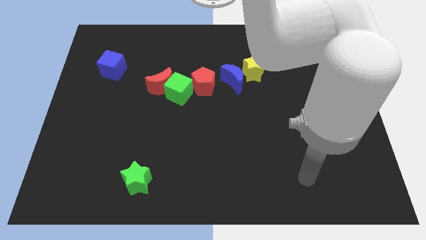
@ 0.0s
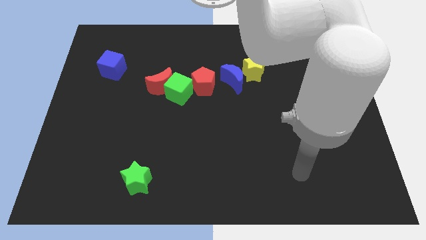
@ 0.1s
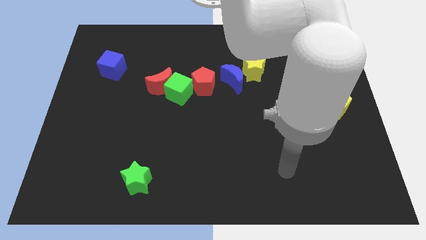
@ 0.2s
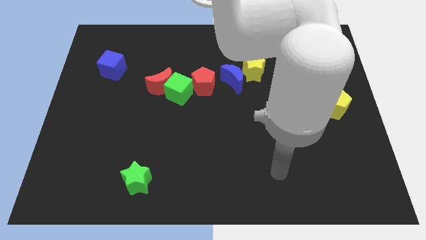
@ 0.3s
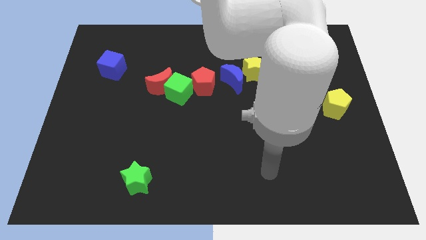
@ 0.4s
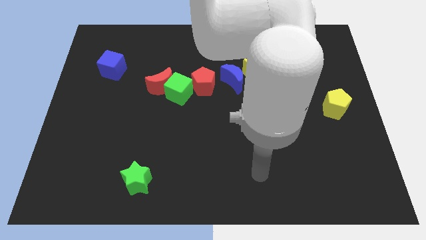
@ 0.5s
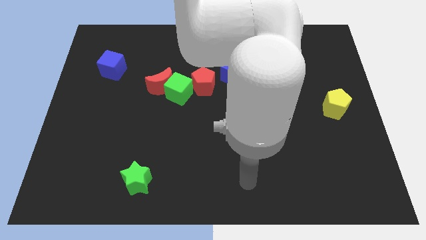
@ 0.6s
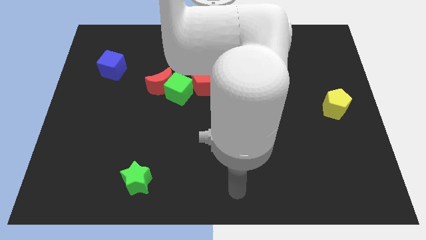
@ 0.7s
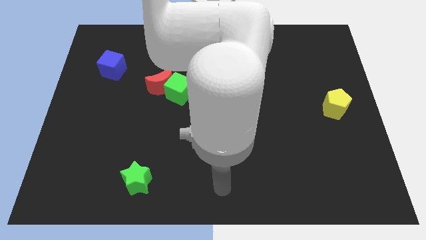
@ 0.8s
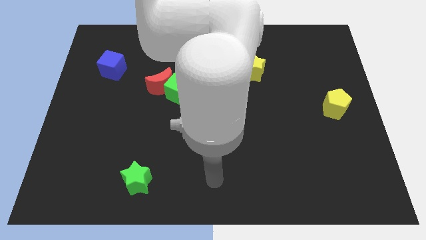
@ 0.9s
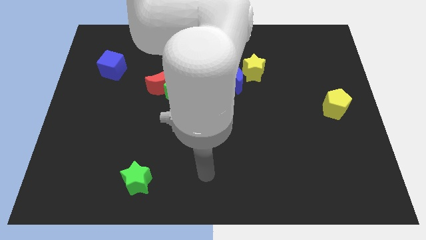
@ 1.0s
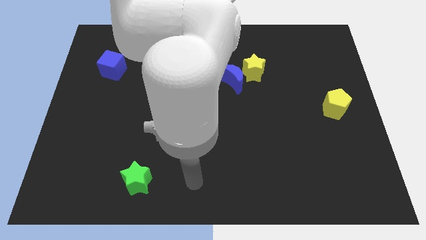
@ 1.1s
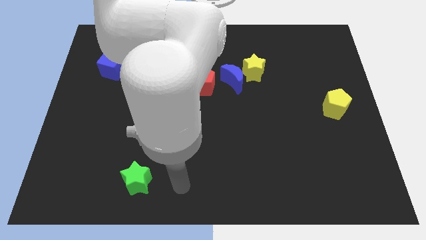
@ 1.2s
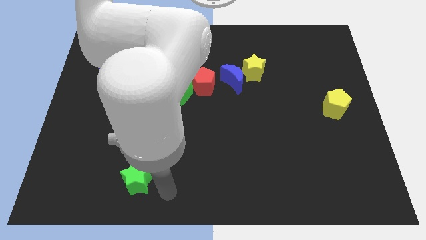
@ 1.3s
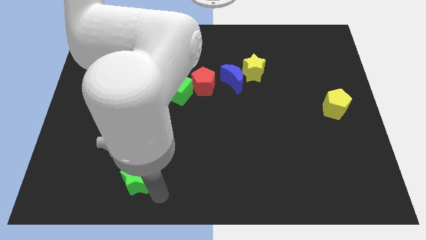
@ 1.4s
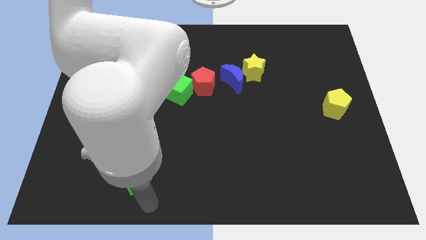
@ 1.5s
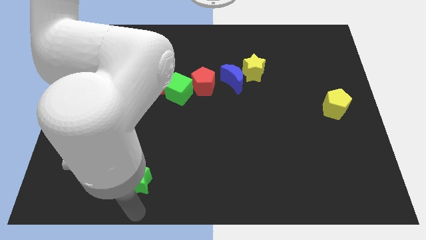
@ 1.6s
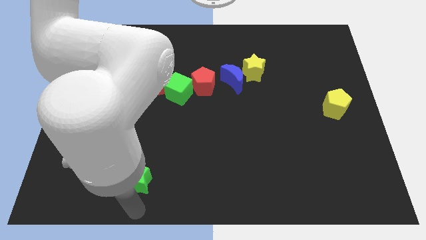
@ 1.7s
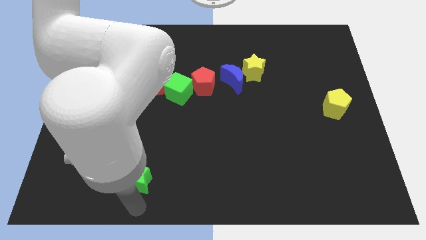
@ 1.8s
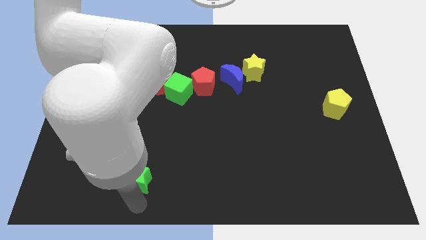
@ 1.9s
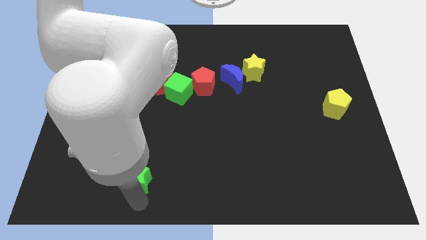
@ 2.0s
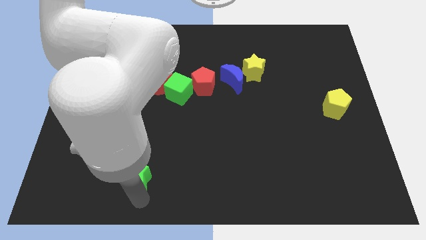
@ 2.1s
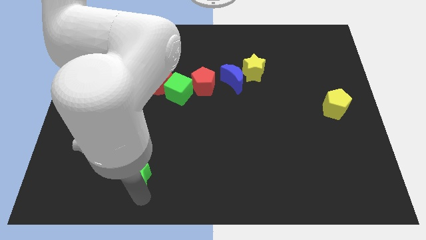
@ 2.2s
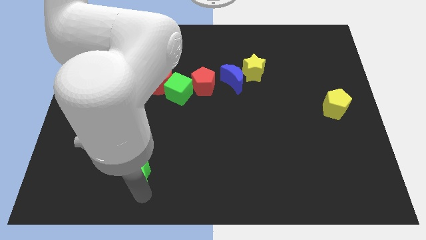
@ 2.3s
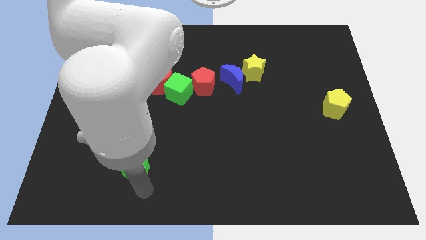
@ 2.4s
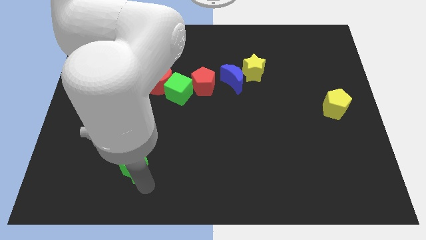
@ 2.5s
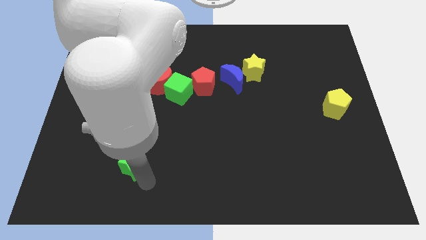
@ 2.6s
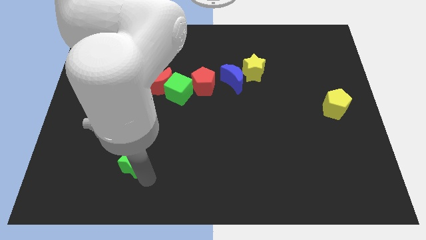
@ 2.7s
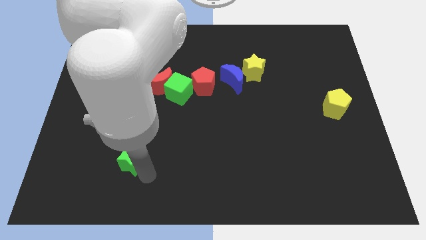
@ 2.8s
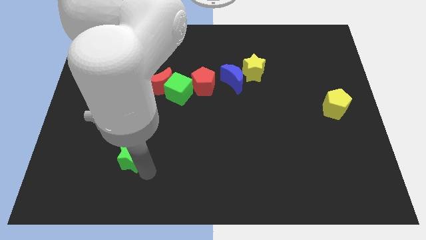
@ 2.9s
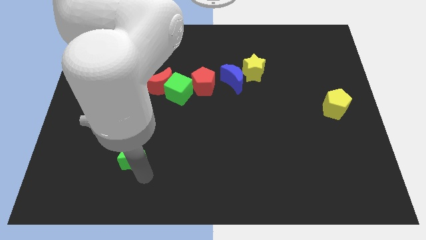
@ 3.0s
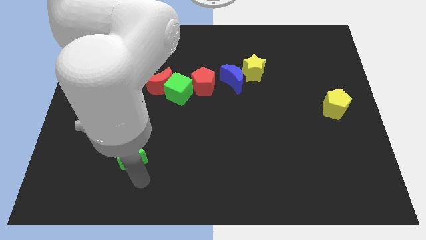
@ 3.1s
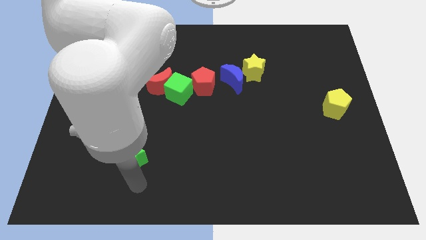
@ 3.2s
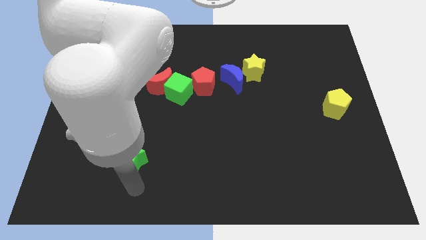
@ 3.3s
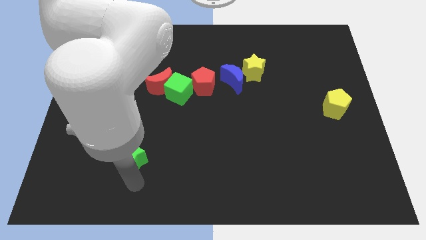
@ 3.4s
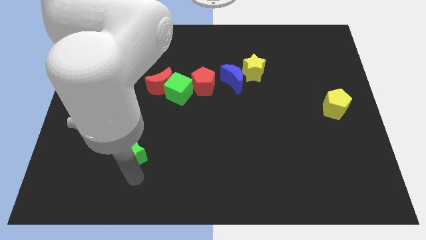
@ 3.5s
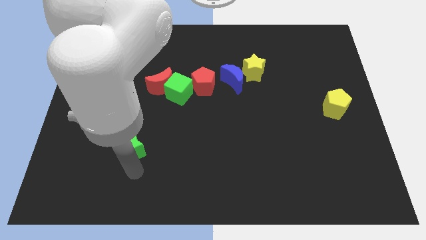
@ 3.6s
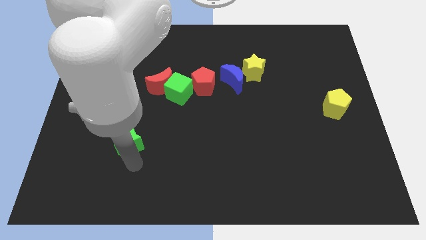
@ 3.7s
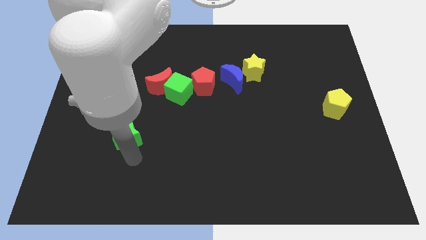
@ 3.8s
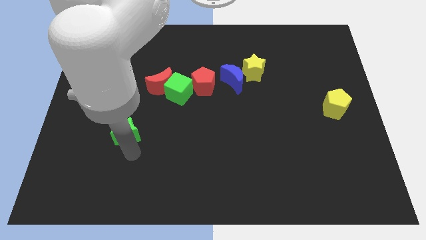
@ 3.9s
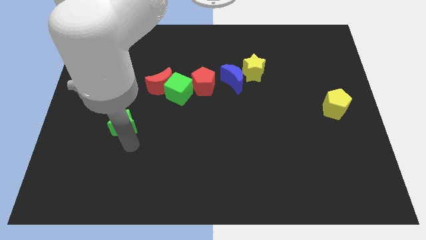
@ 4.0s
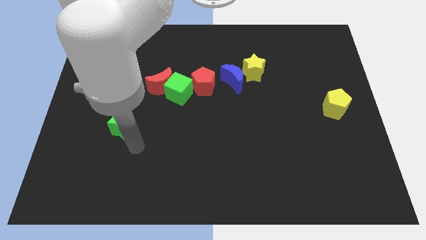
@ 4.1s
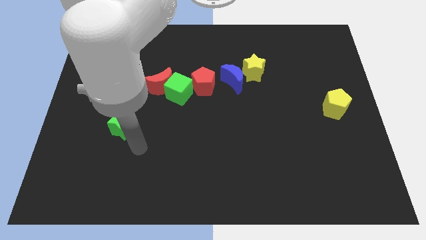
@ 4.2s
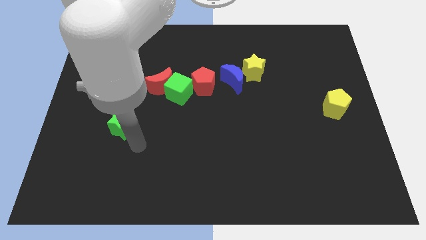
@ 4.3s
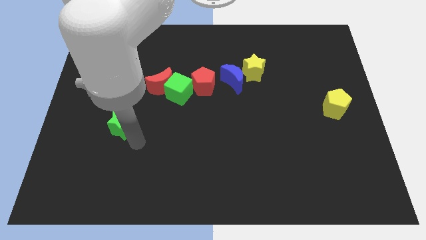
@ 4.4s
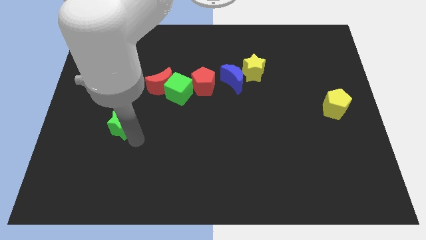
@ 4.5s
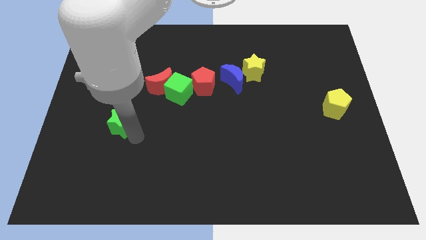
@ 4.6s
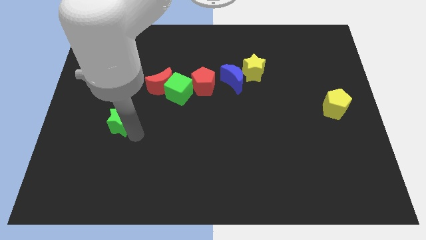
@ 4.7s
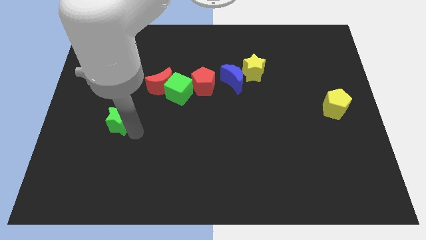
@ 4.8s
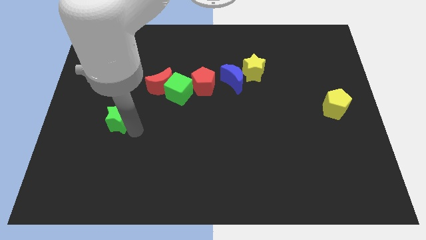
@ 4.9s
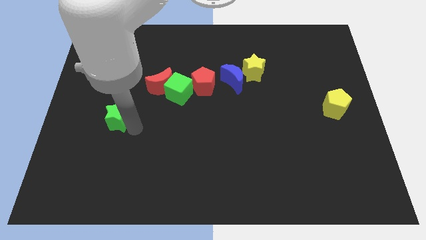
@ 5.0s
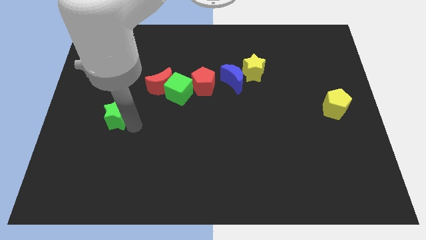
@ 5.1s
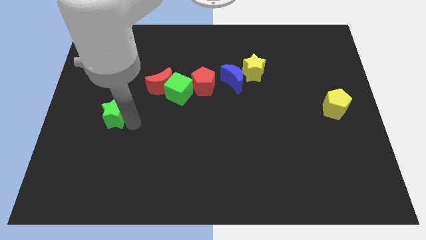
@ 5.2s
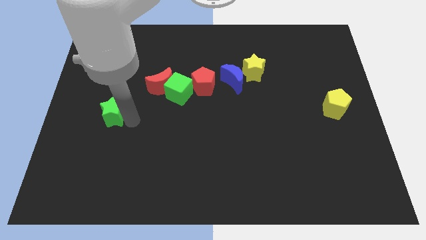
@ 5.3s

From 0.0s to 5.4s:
push the green star to the bottom side of the blue cube

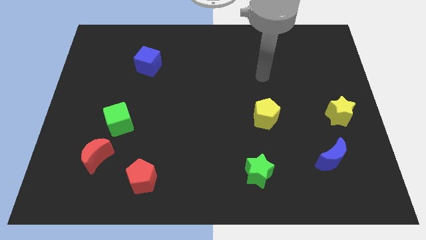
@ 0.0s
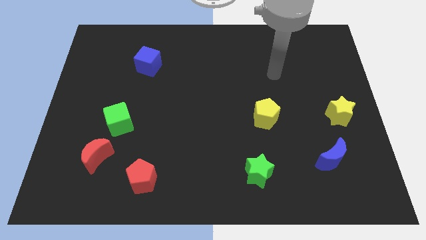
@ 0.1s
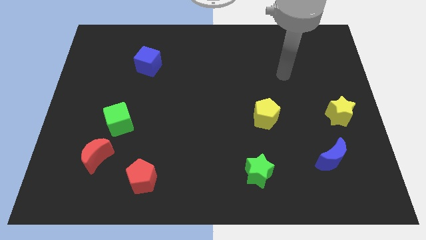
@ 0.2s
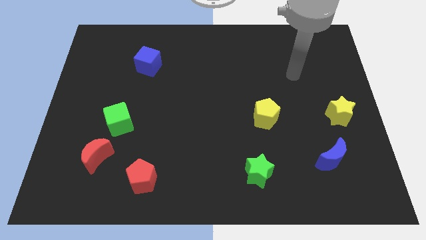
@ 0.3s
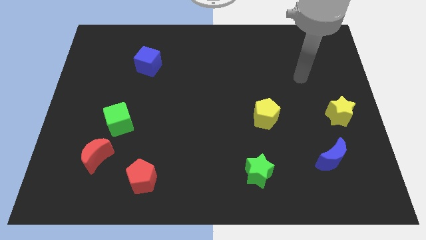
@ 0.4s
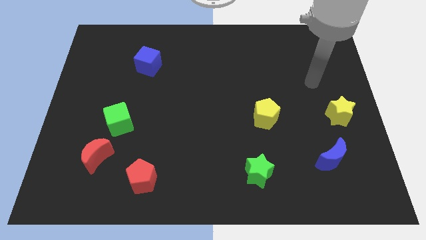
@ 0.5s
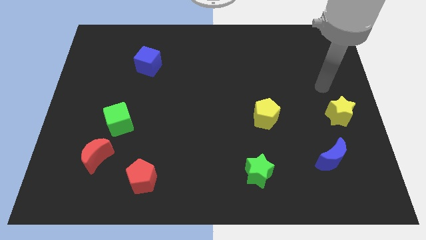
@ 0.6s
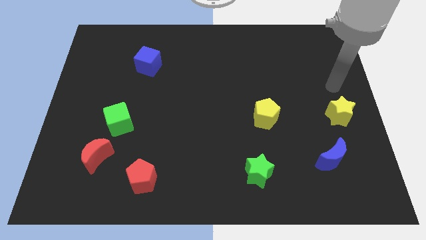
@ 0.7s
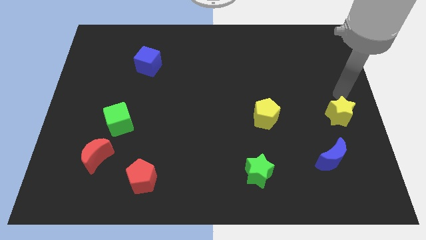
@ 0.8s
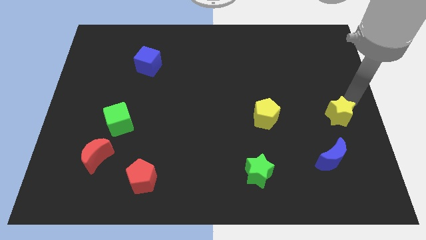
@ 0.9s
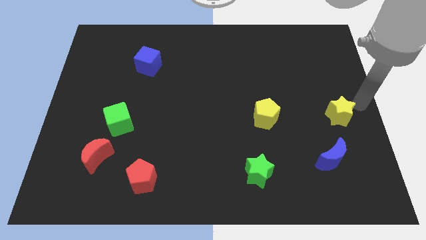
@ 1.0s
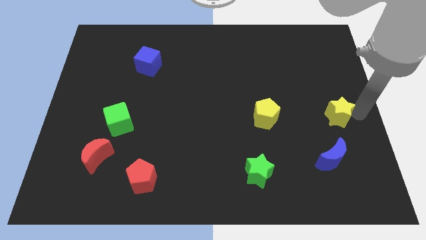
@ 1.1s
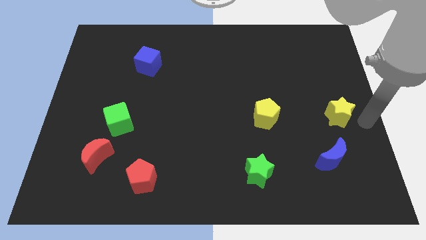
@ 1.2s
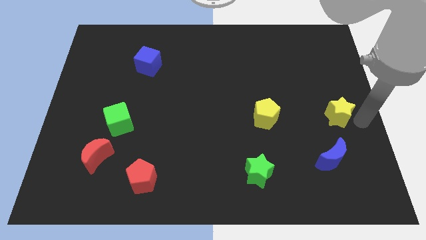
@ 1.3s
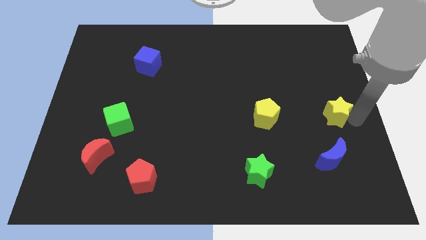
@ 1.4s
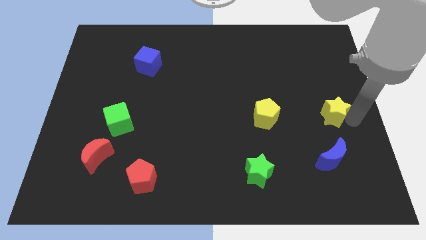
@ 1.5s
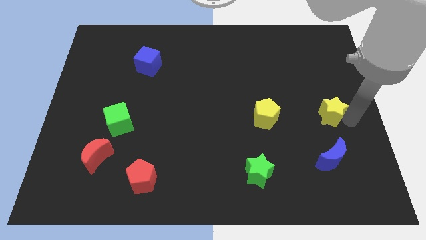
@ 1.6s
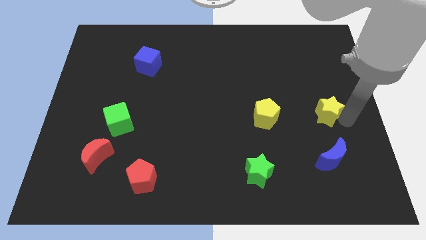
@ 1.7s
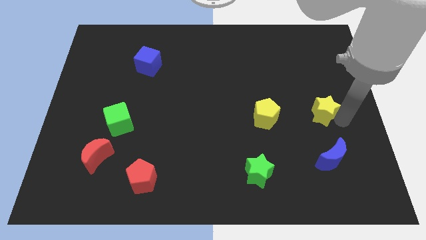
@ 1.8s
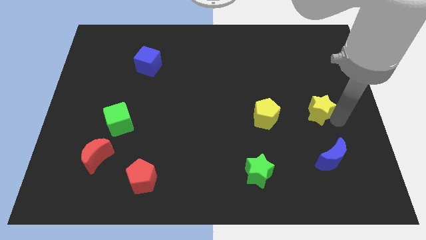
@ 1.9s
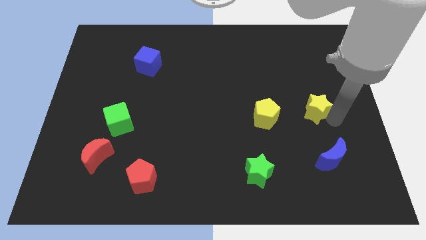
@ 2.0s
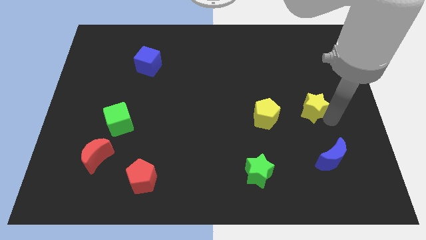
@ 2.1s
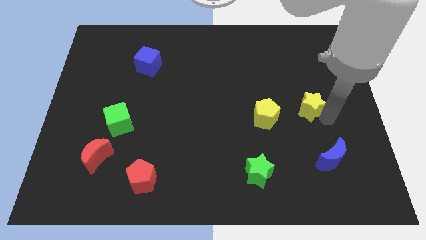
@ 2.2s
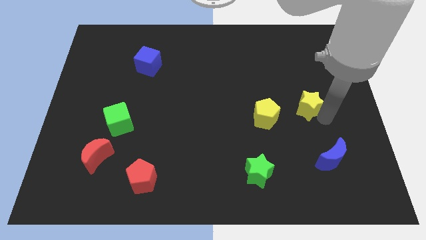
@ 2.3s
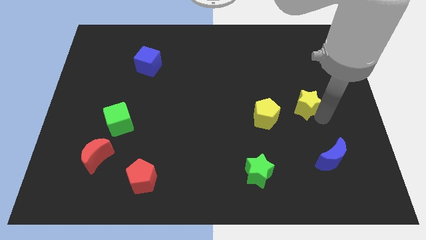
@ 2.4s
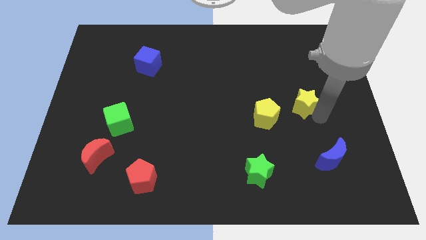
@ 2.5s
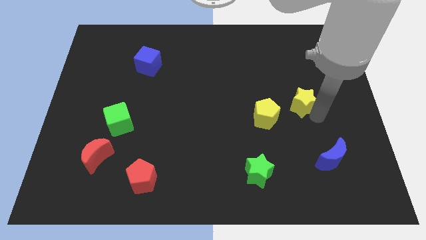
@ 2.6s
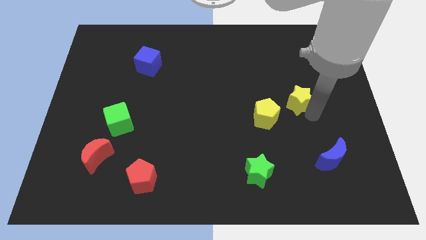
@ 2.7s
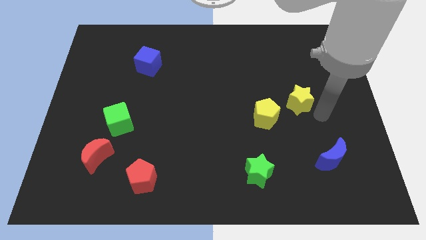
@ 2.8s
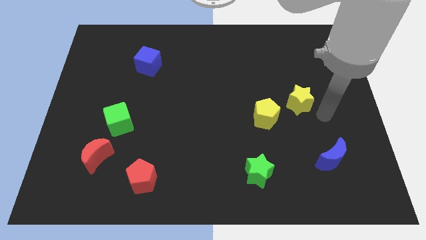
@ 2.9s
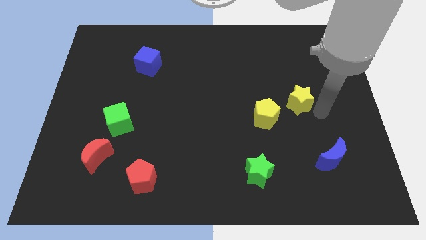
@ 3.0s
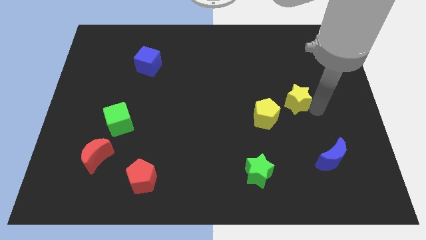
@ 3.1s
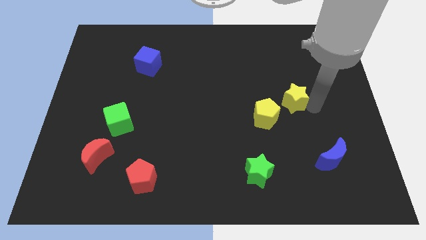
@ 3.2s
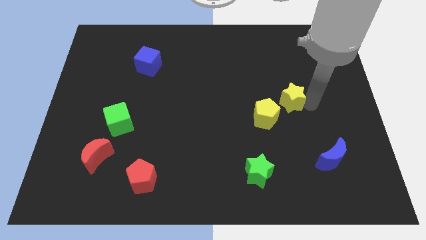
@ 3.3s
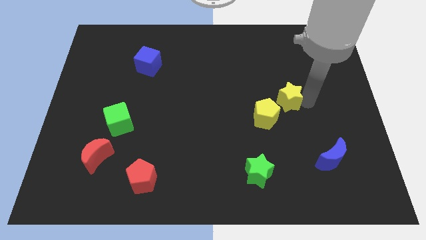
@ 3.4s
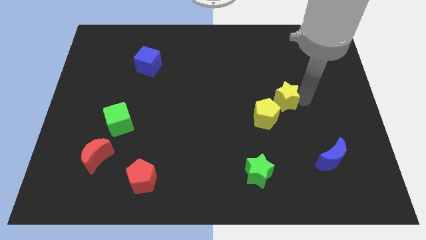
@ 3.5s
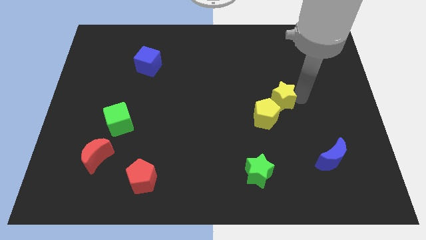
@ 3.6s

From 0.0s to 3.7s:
slide the yellow star to the top of the yellow pentagon
